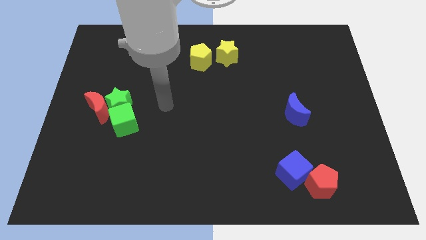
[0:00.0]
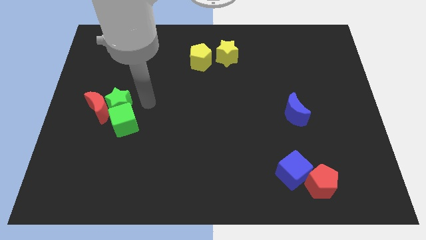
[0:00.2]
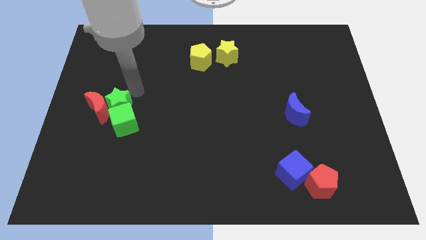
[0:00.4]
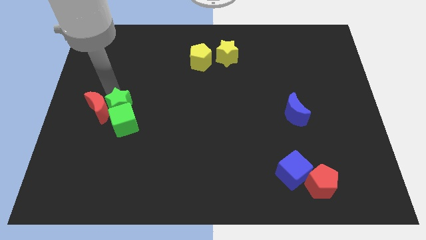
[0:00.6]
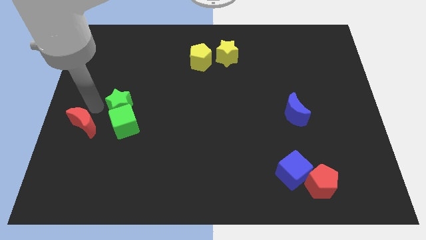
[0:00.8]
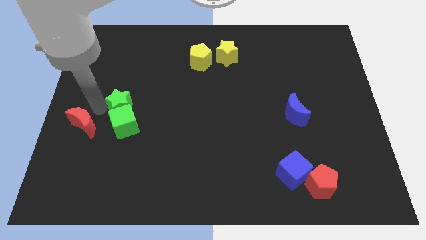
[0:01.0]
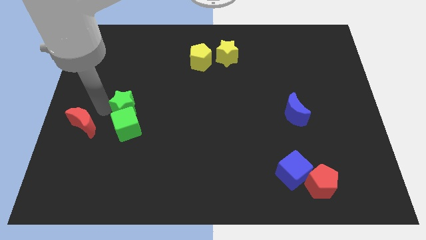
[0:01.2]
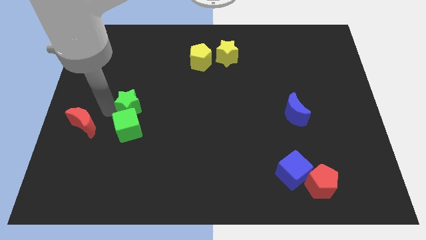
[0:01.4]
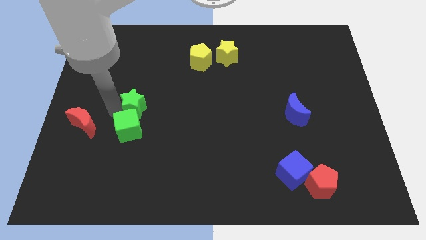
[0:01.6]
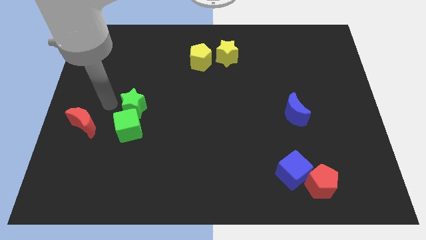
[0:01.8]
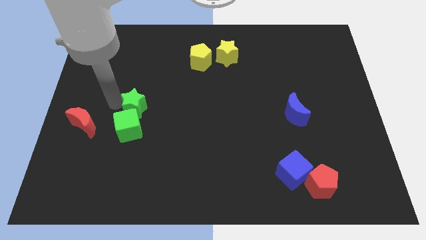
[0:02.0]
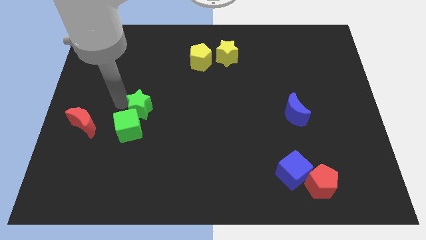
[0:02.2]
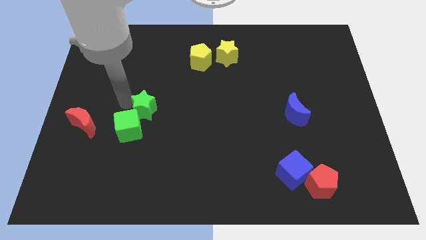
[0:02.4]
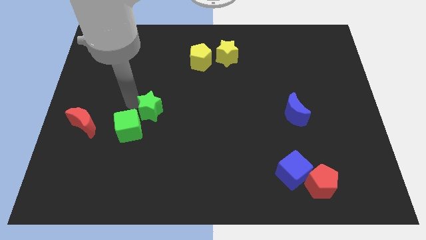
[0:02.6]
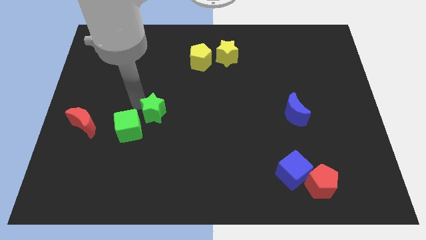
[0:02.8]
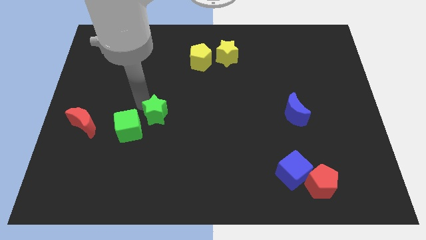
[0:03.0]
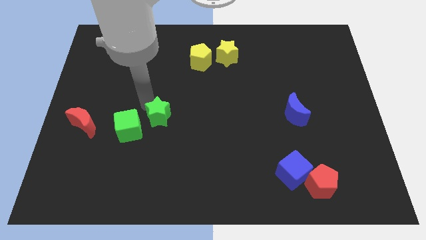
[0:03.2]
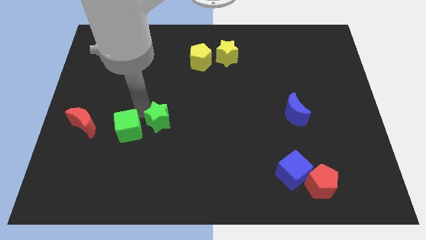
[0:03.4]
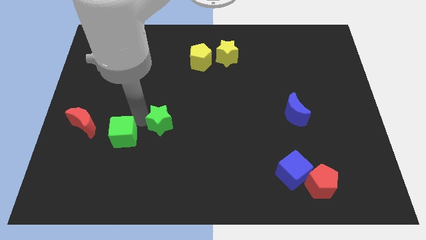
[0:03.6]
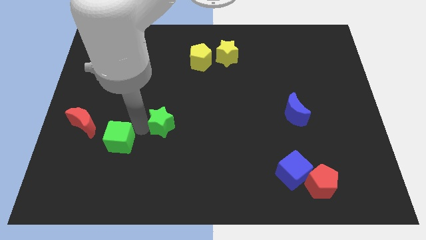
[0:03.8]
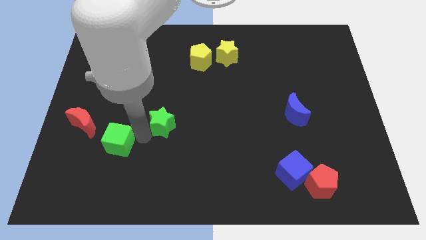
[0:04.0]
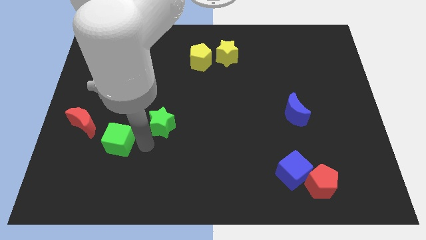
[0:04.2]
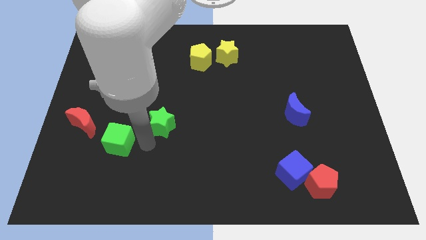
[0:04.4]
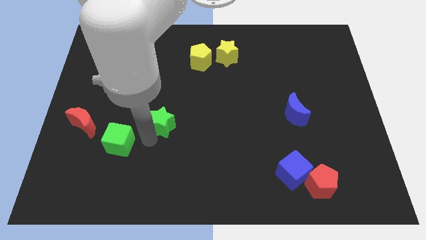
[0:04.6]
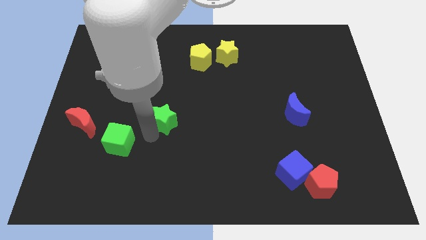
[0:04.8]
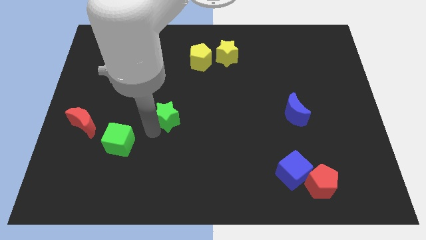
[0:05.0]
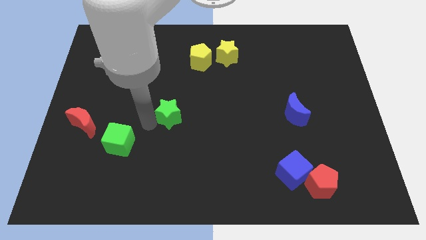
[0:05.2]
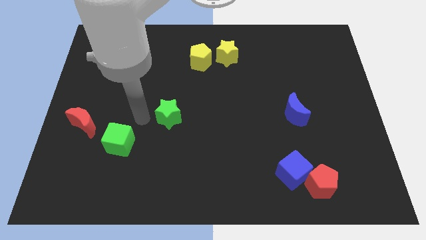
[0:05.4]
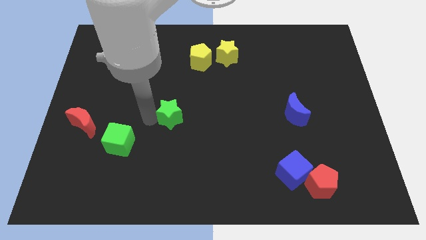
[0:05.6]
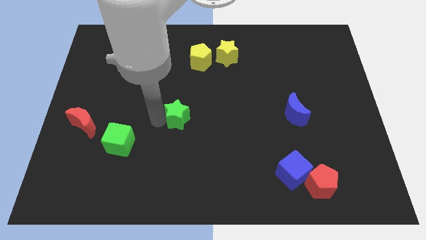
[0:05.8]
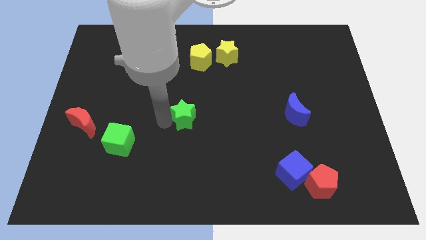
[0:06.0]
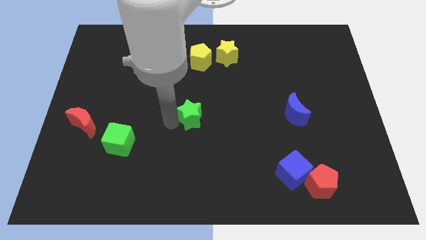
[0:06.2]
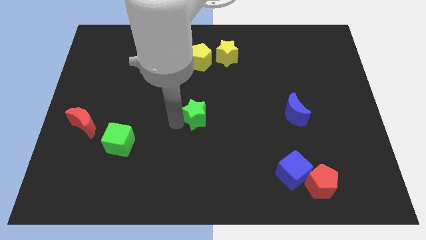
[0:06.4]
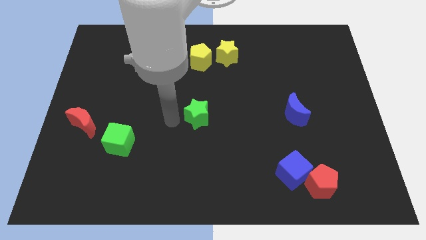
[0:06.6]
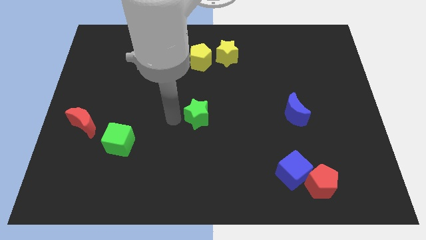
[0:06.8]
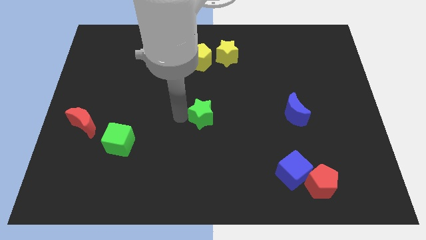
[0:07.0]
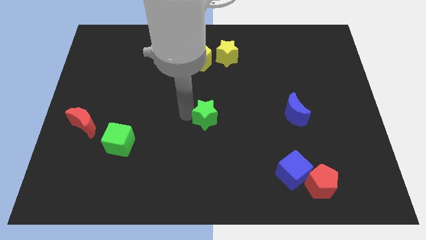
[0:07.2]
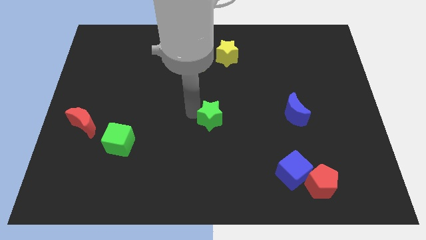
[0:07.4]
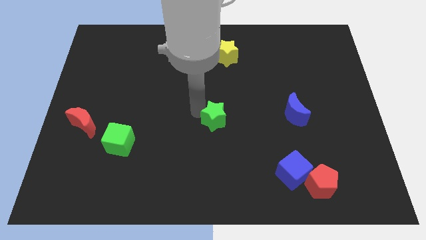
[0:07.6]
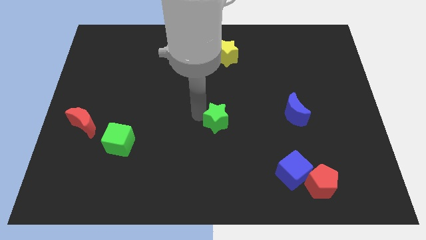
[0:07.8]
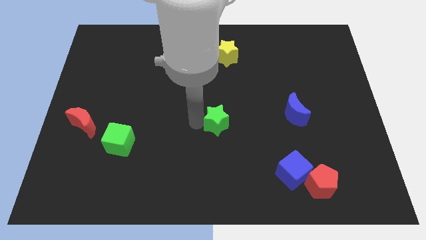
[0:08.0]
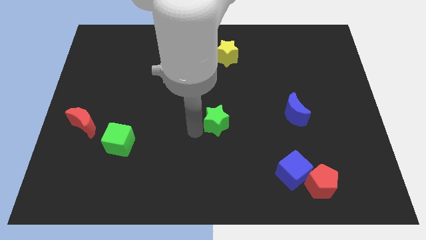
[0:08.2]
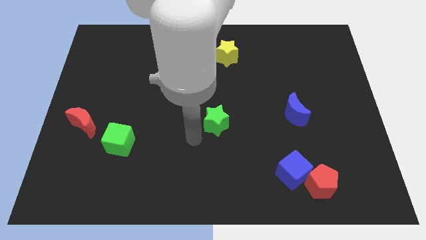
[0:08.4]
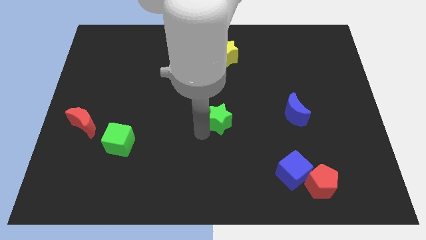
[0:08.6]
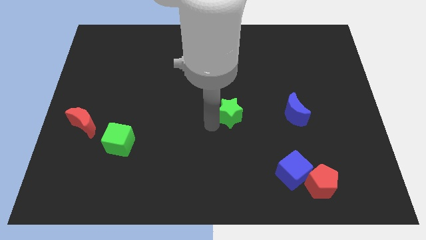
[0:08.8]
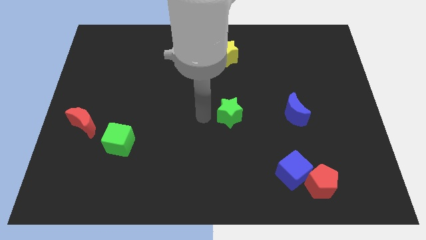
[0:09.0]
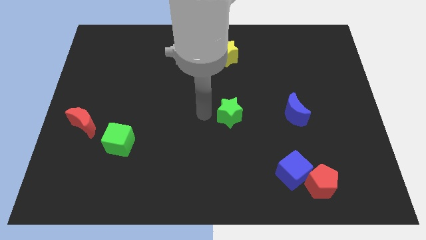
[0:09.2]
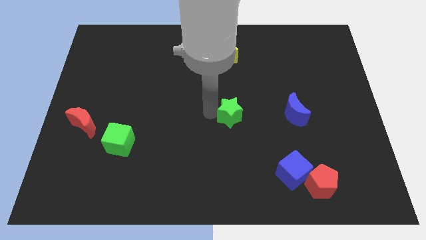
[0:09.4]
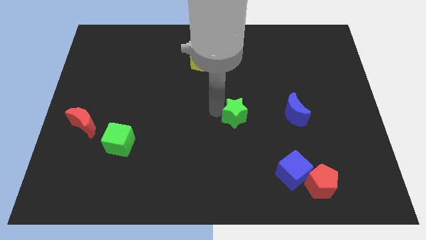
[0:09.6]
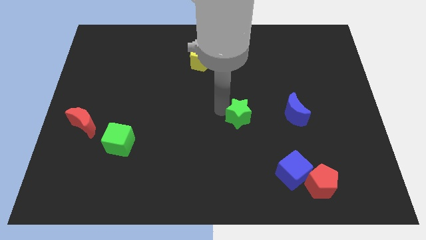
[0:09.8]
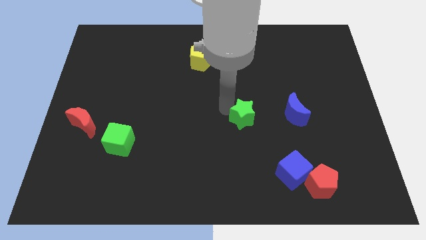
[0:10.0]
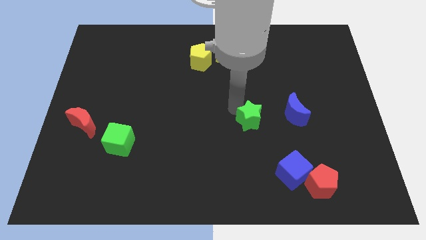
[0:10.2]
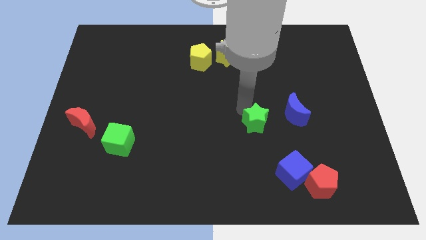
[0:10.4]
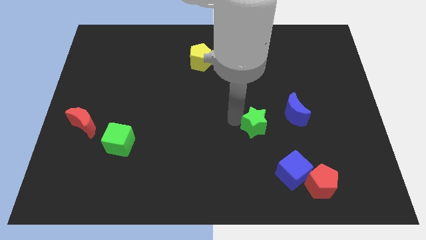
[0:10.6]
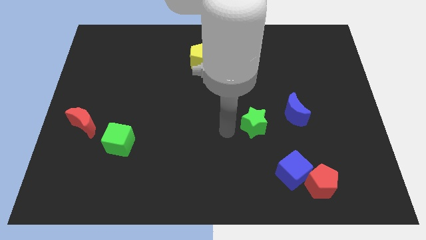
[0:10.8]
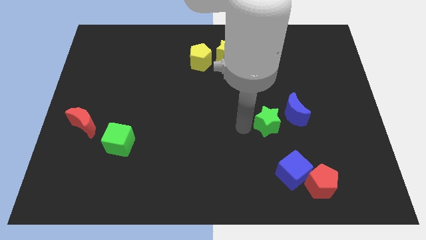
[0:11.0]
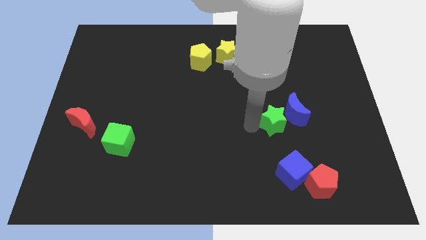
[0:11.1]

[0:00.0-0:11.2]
slide the green star towards the blue moon

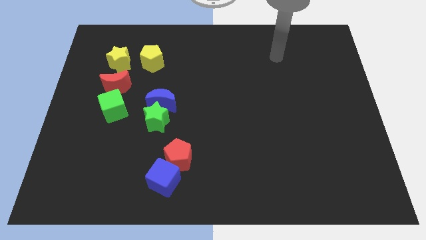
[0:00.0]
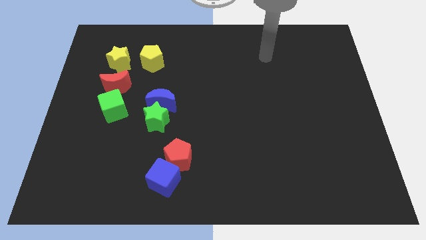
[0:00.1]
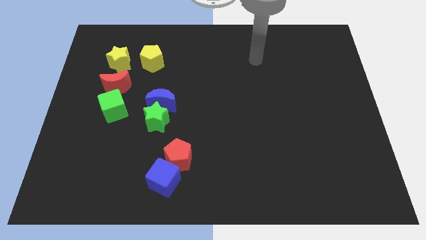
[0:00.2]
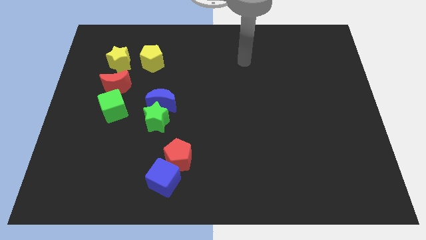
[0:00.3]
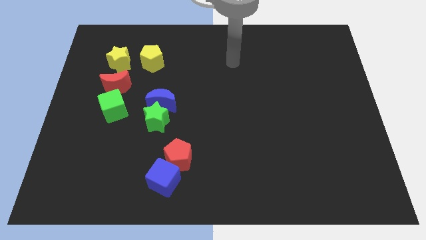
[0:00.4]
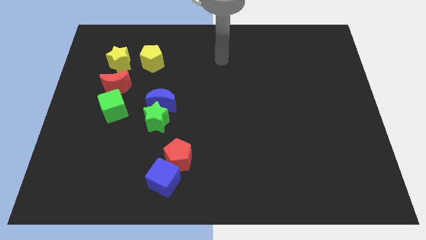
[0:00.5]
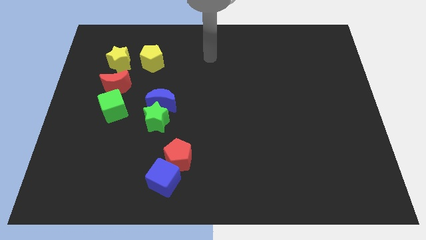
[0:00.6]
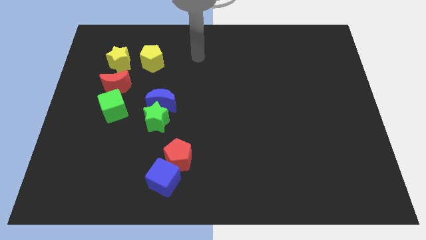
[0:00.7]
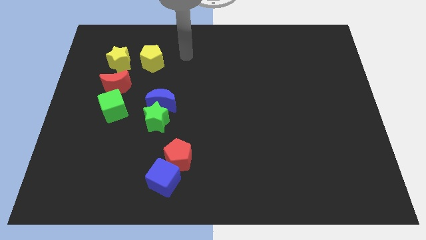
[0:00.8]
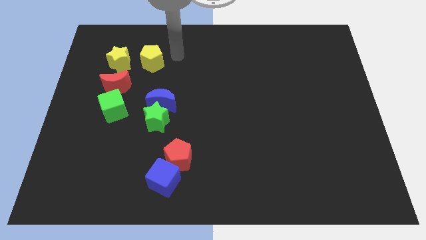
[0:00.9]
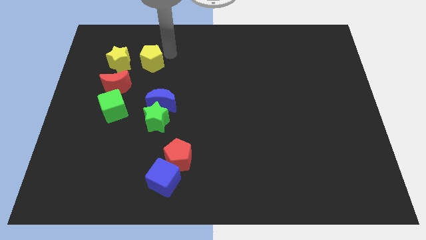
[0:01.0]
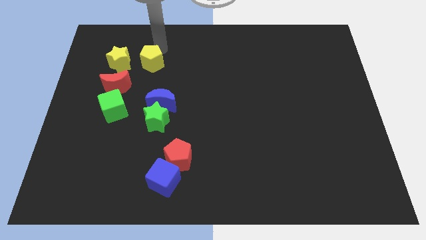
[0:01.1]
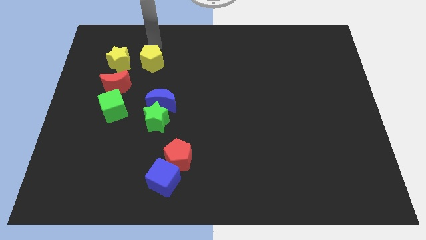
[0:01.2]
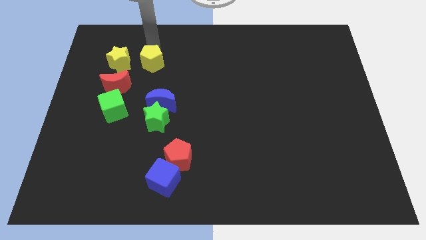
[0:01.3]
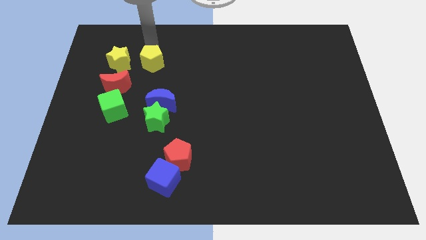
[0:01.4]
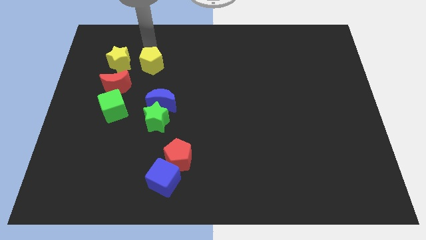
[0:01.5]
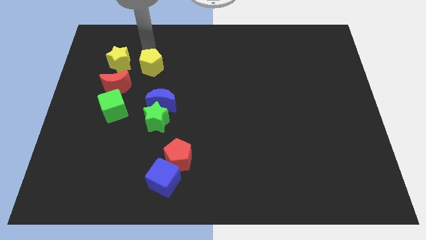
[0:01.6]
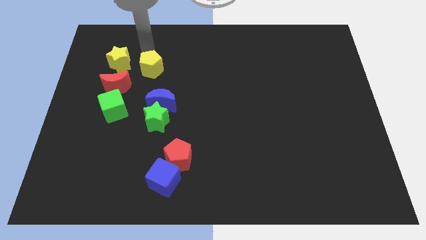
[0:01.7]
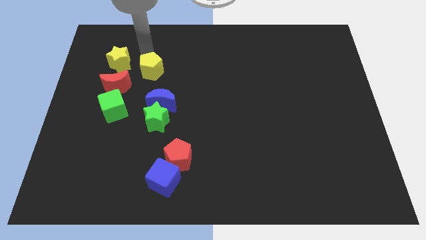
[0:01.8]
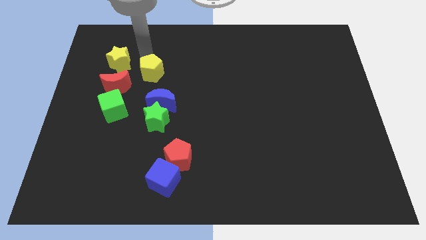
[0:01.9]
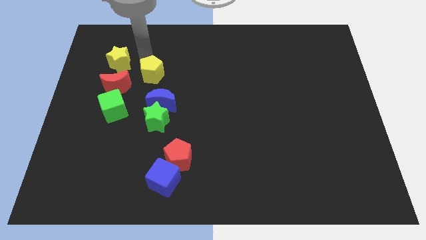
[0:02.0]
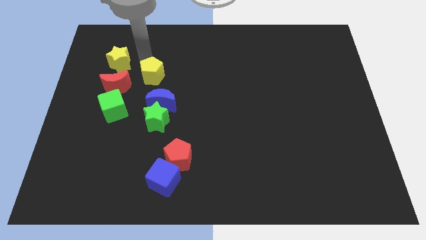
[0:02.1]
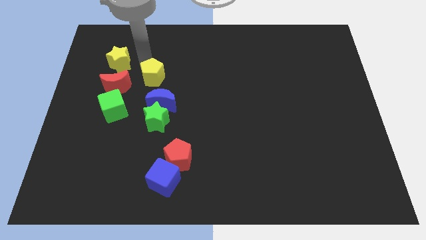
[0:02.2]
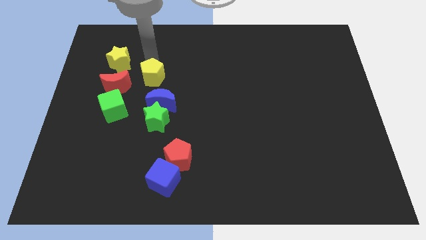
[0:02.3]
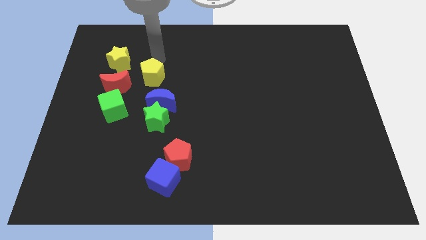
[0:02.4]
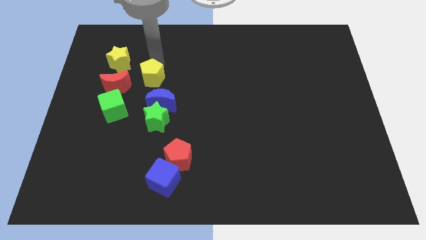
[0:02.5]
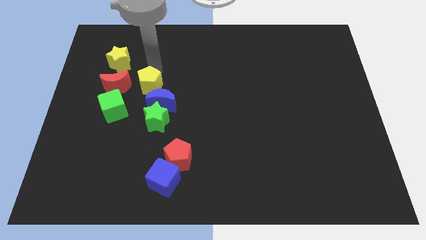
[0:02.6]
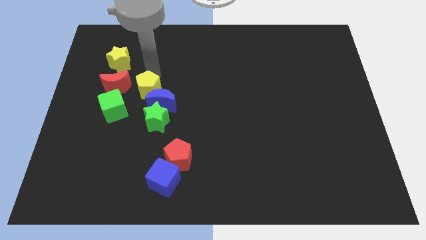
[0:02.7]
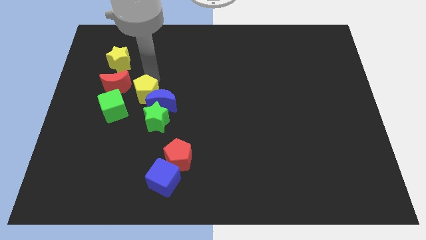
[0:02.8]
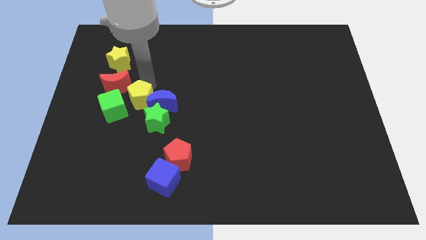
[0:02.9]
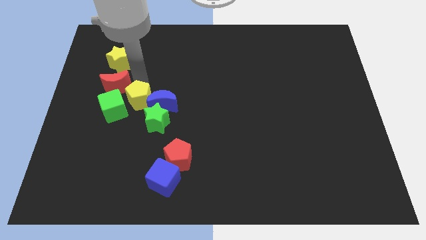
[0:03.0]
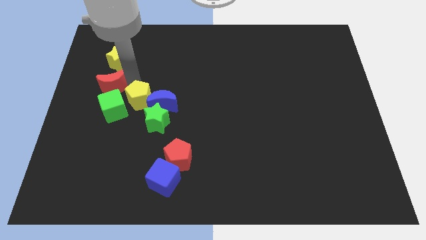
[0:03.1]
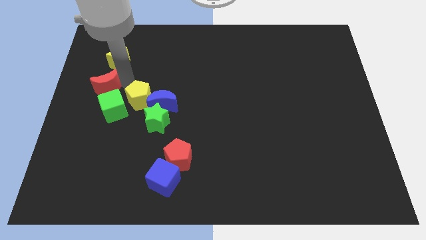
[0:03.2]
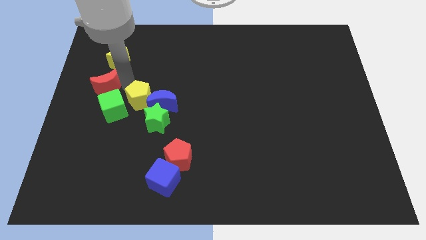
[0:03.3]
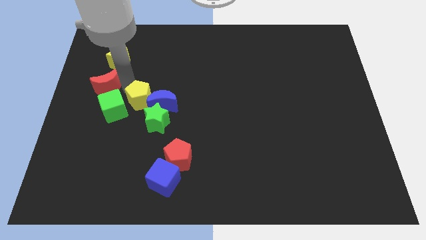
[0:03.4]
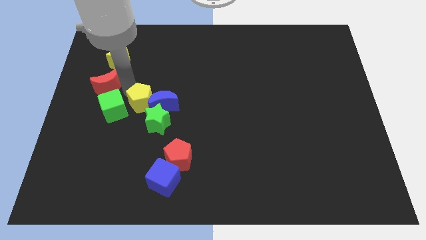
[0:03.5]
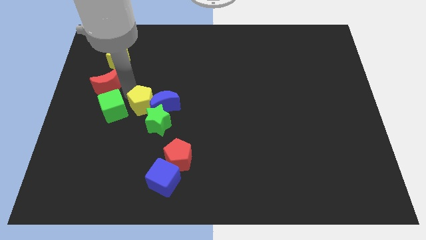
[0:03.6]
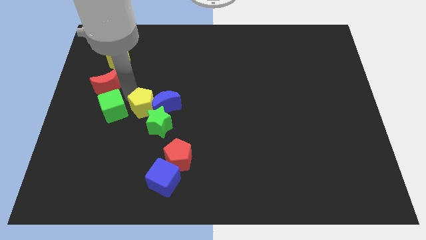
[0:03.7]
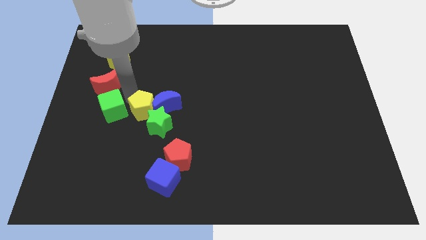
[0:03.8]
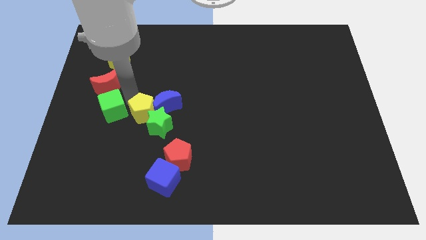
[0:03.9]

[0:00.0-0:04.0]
push the yellow pentagon close to the green star
